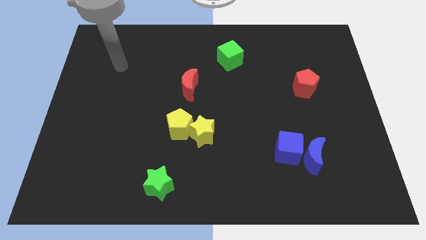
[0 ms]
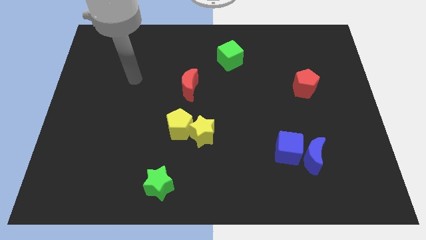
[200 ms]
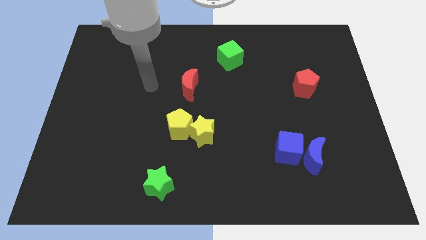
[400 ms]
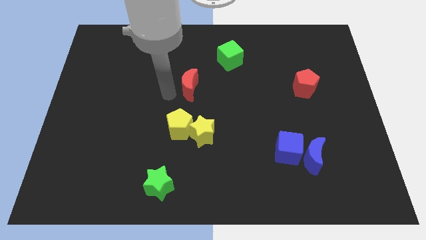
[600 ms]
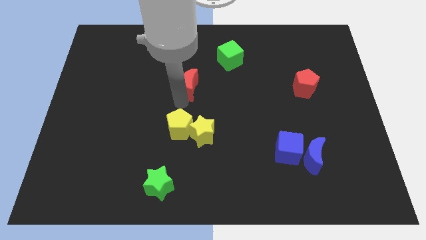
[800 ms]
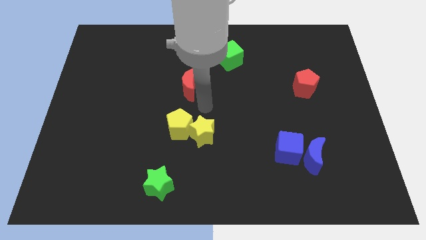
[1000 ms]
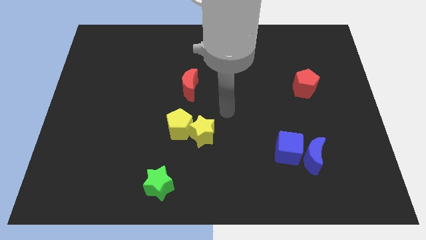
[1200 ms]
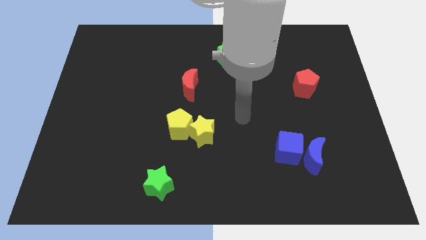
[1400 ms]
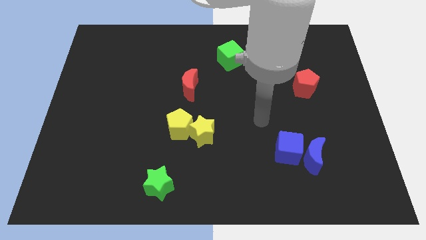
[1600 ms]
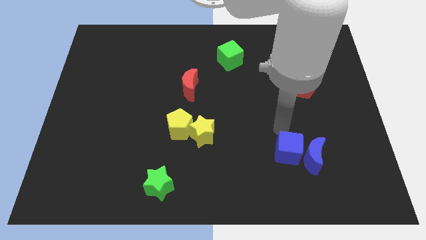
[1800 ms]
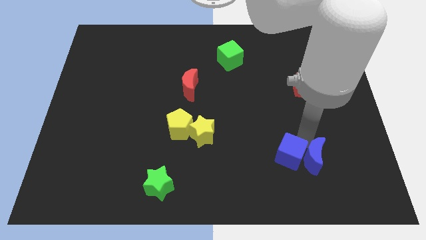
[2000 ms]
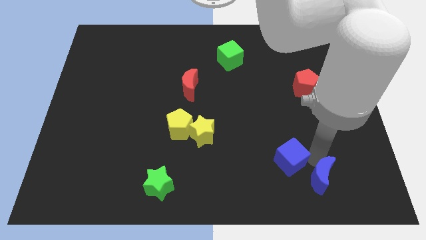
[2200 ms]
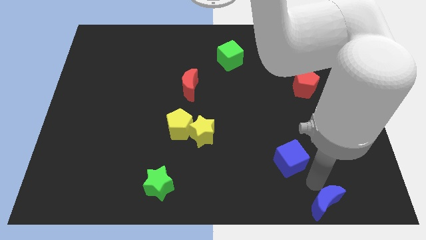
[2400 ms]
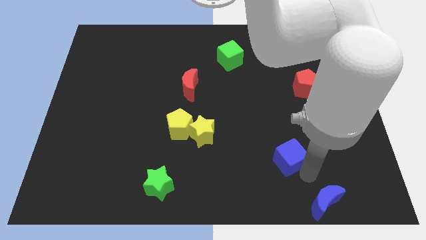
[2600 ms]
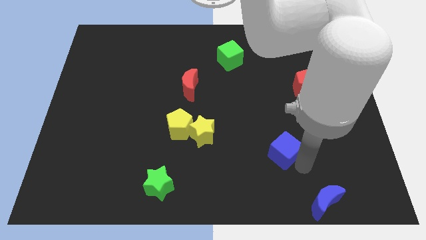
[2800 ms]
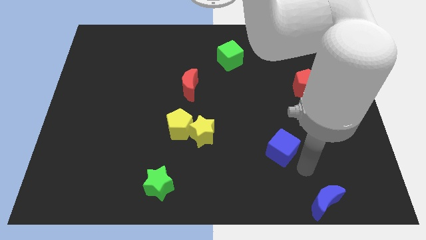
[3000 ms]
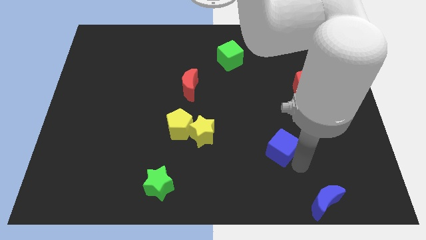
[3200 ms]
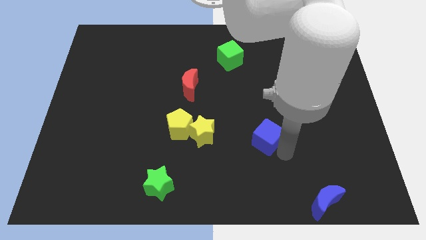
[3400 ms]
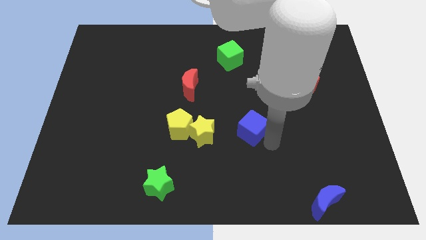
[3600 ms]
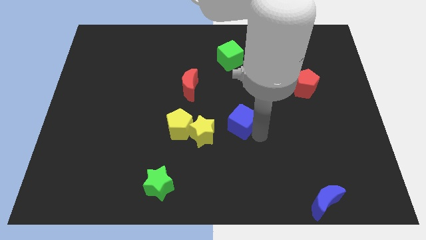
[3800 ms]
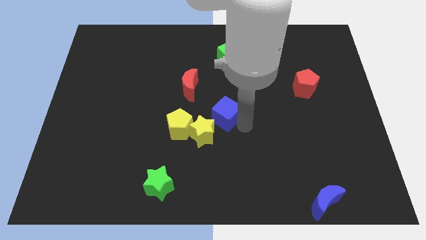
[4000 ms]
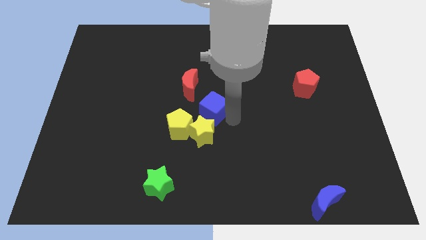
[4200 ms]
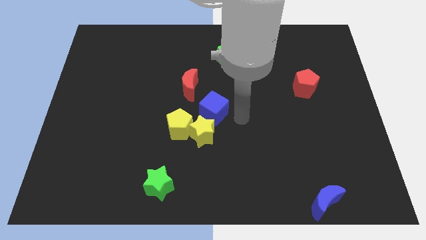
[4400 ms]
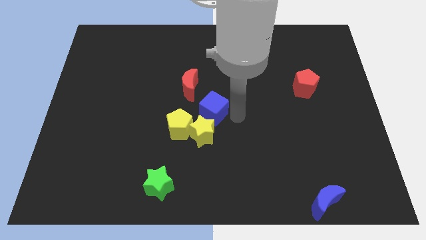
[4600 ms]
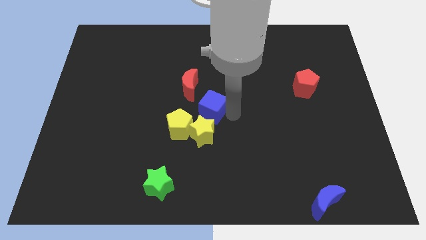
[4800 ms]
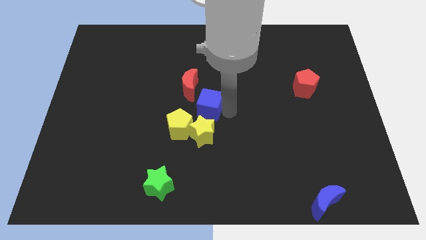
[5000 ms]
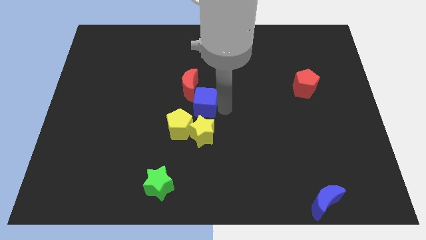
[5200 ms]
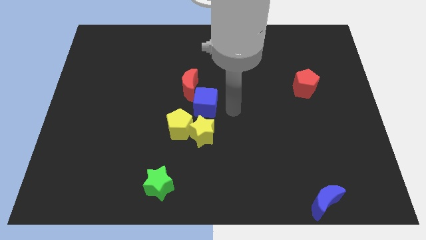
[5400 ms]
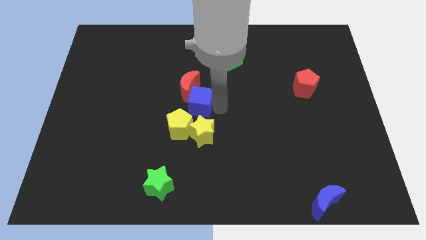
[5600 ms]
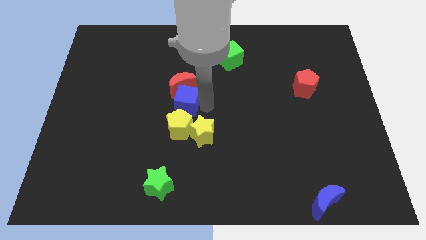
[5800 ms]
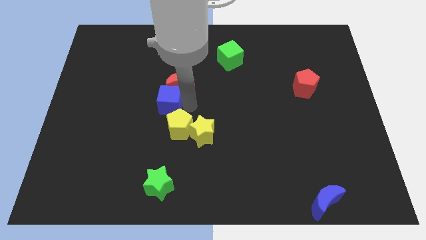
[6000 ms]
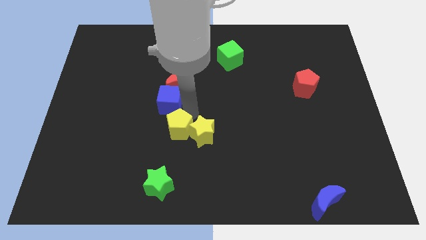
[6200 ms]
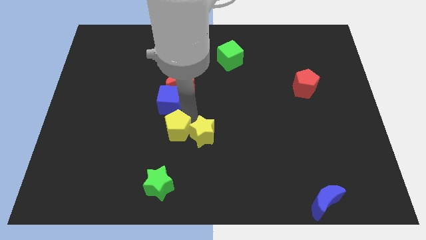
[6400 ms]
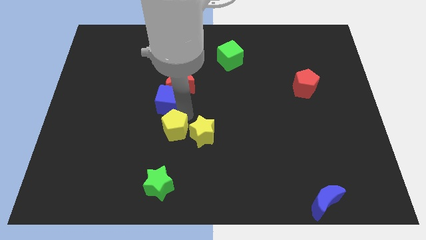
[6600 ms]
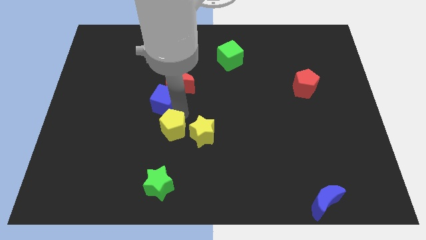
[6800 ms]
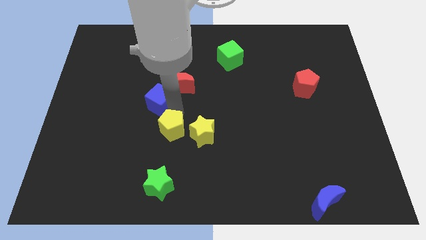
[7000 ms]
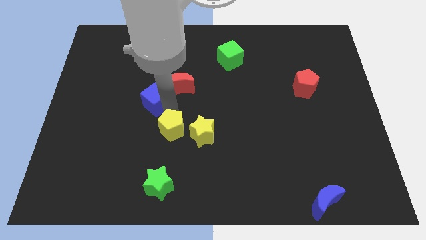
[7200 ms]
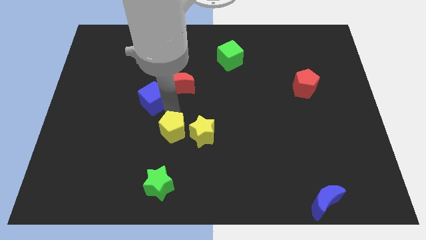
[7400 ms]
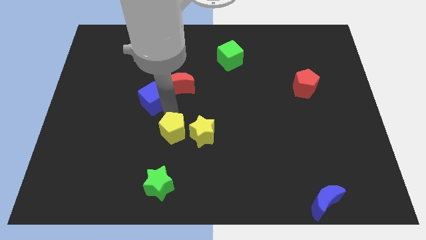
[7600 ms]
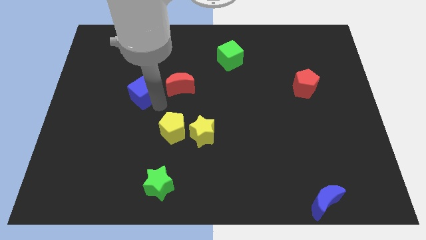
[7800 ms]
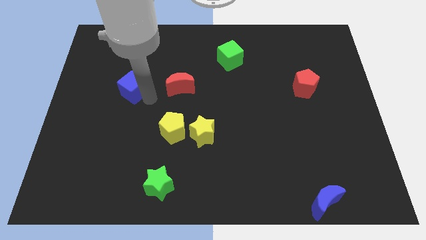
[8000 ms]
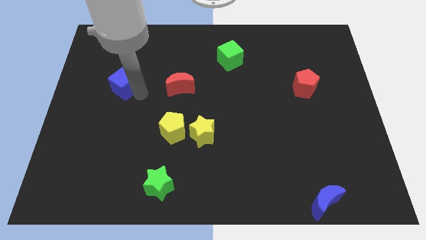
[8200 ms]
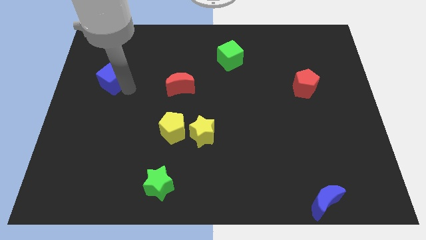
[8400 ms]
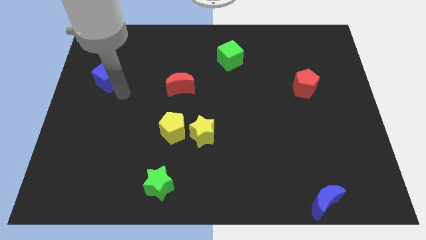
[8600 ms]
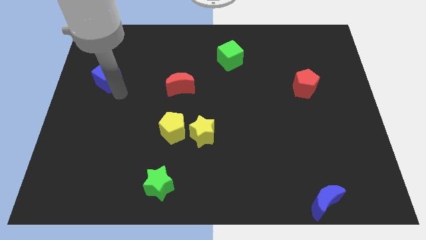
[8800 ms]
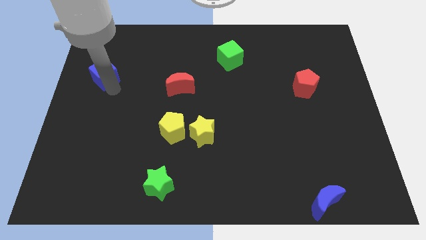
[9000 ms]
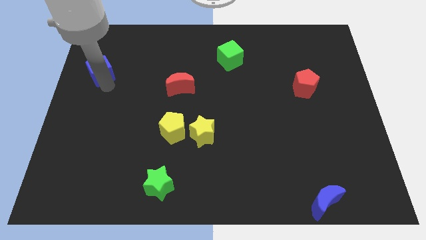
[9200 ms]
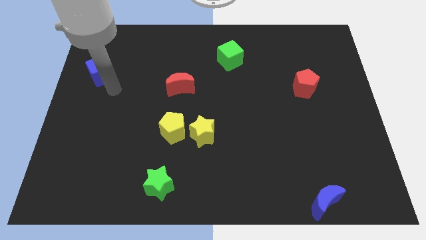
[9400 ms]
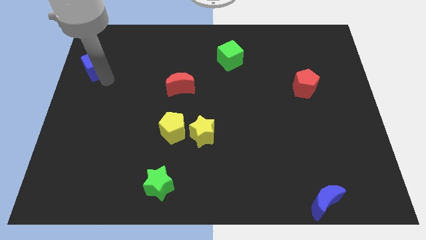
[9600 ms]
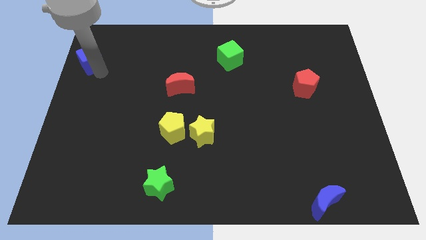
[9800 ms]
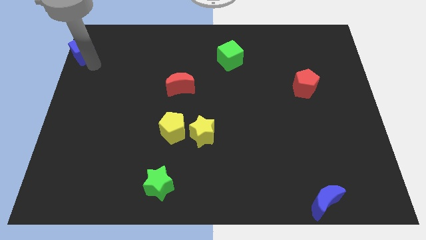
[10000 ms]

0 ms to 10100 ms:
move the blue cube to the upper left corner
